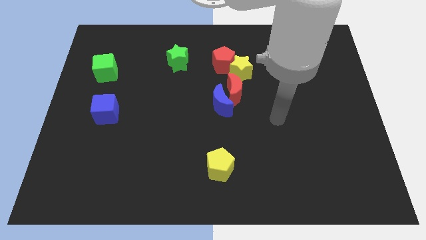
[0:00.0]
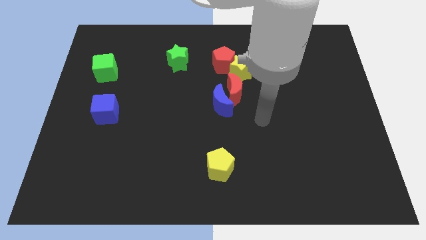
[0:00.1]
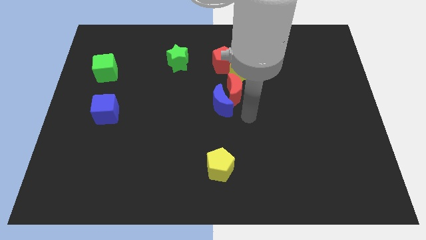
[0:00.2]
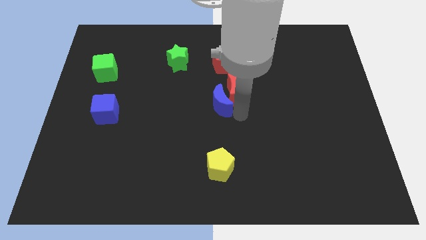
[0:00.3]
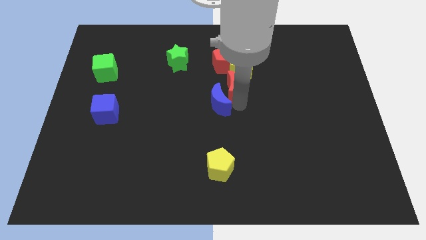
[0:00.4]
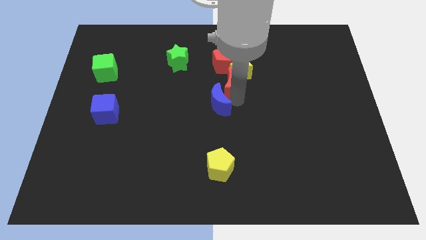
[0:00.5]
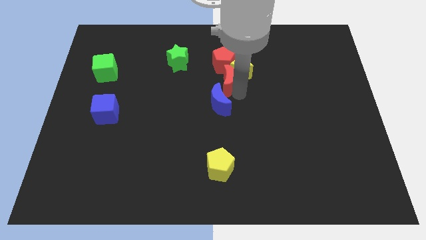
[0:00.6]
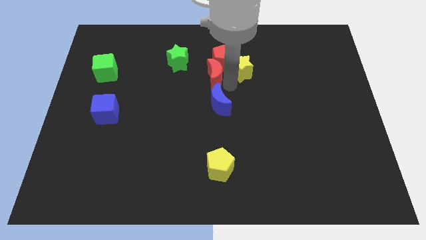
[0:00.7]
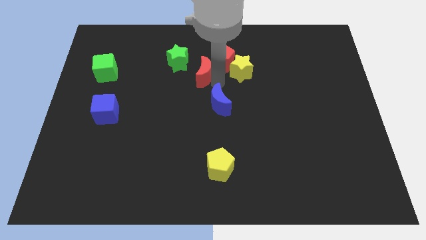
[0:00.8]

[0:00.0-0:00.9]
separate the blue moon from the red moon

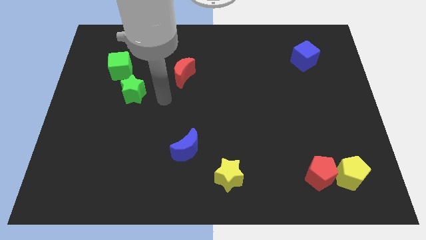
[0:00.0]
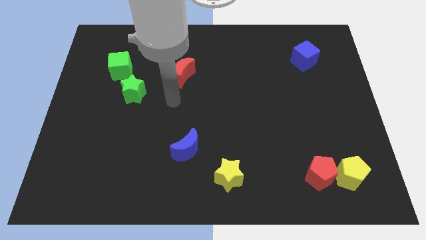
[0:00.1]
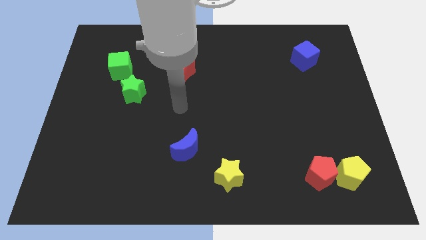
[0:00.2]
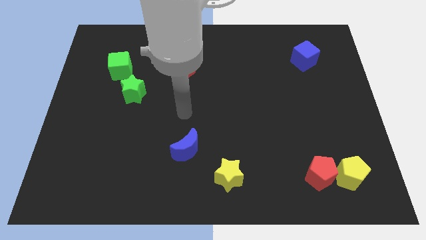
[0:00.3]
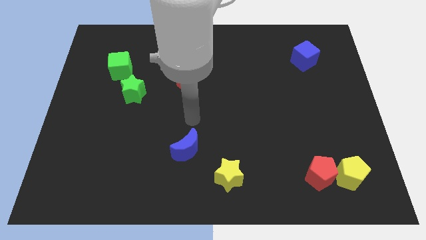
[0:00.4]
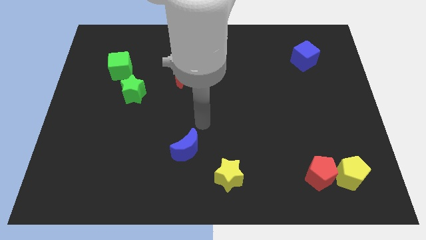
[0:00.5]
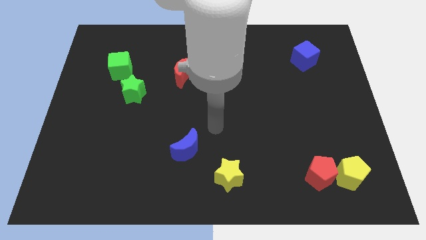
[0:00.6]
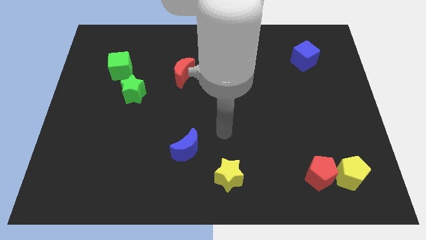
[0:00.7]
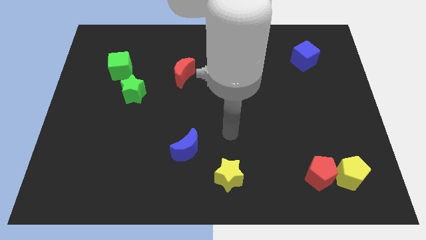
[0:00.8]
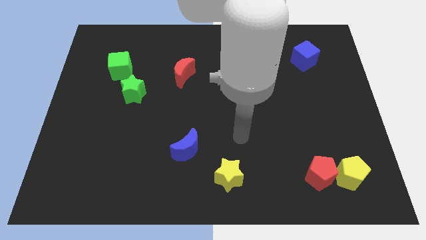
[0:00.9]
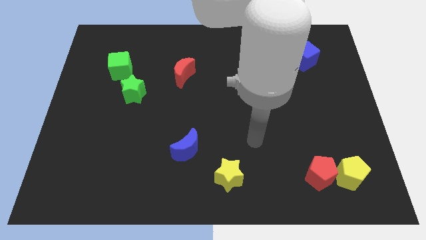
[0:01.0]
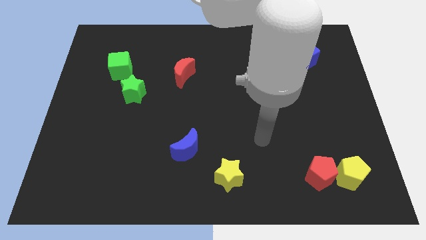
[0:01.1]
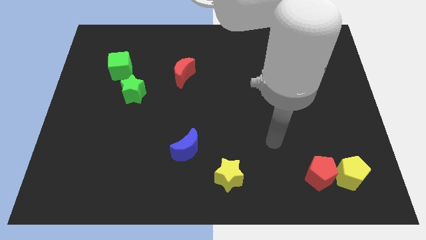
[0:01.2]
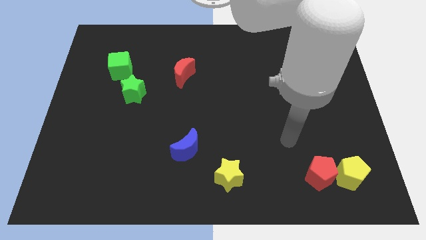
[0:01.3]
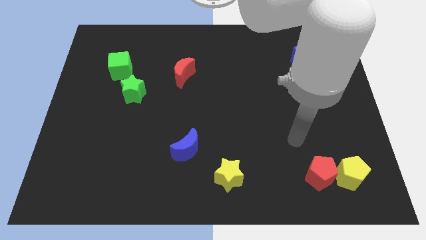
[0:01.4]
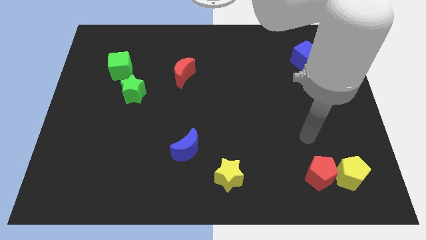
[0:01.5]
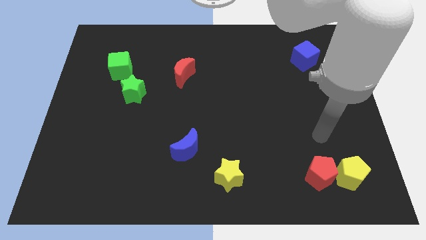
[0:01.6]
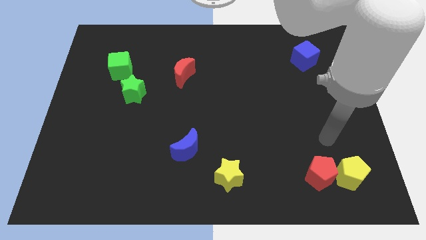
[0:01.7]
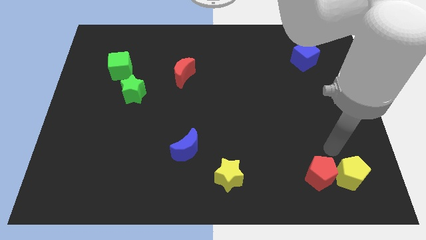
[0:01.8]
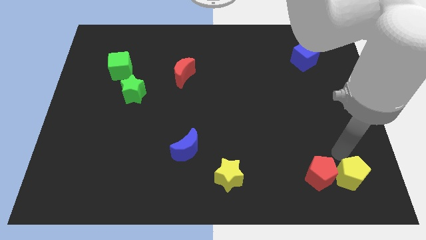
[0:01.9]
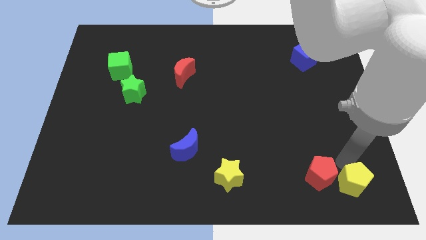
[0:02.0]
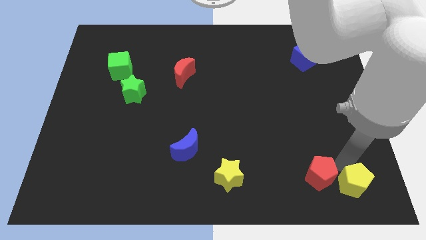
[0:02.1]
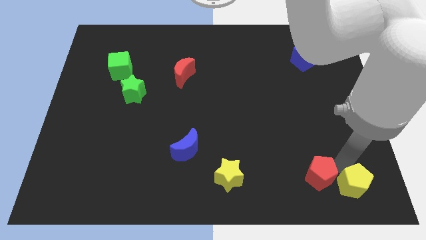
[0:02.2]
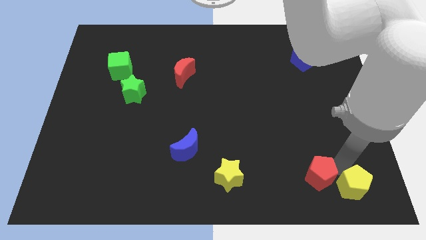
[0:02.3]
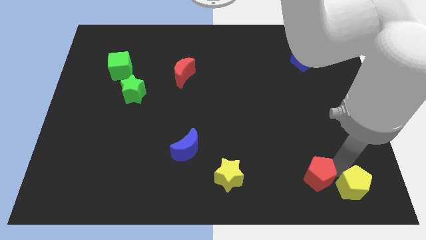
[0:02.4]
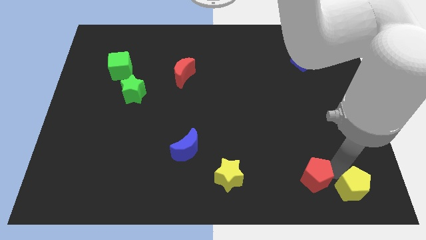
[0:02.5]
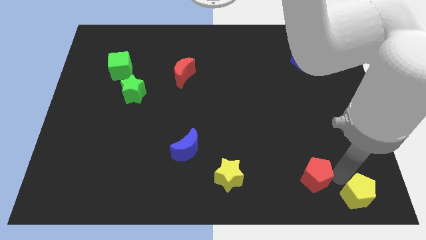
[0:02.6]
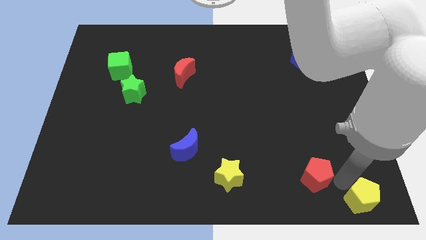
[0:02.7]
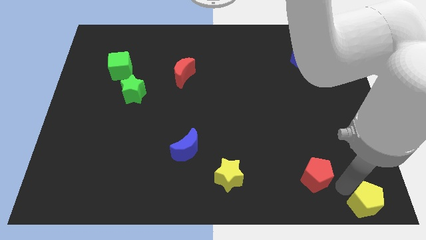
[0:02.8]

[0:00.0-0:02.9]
pull the red pentagon apart from the yellow pentagon

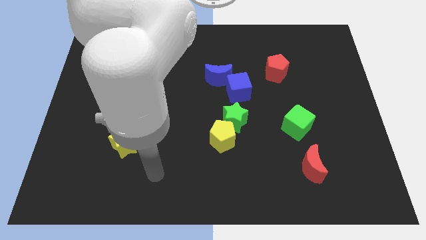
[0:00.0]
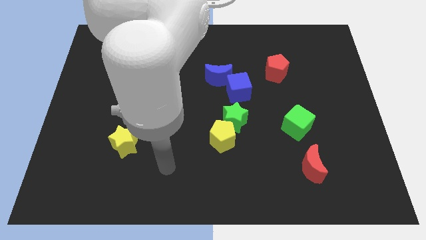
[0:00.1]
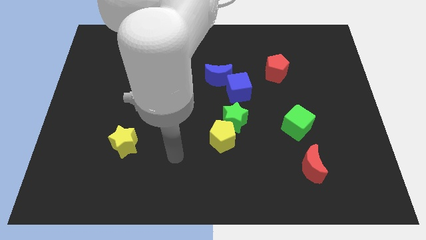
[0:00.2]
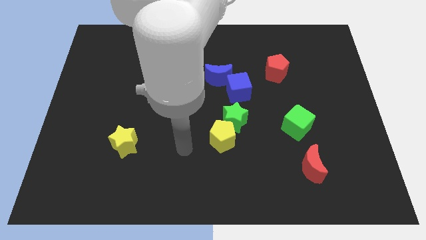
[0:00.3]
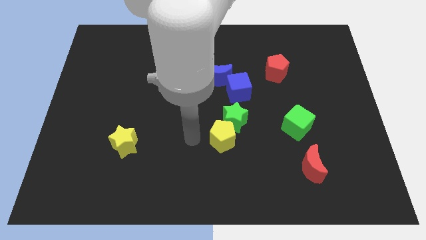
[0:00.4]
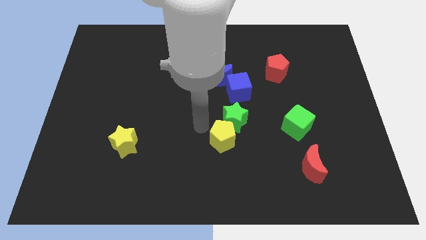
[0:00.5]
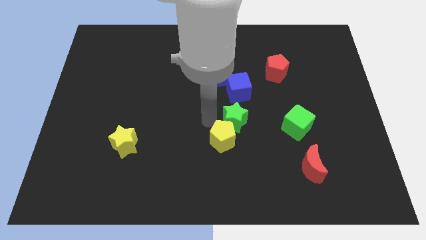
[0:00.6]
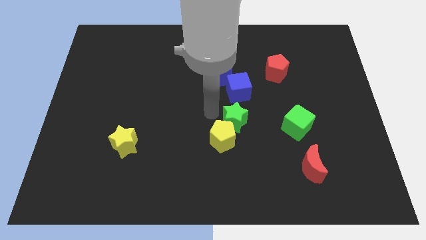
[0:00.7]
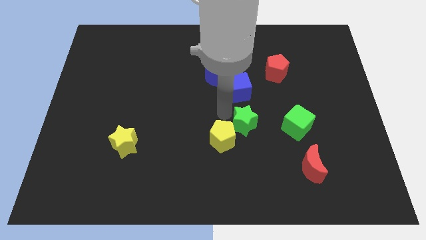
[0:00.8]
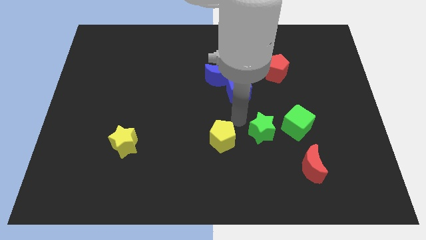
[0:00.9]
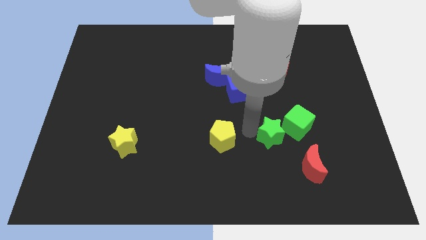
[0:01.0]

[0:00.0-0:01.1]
move the yellow pentagon away from the green star

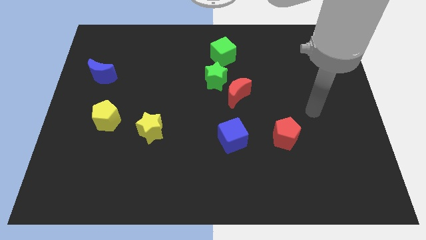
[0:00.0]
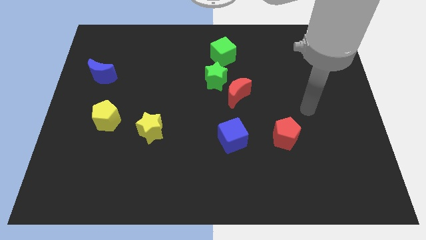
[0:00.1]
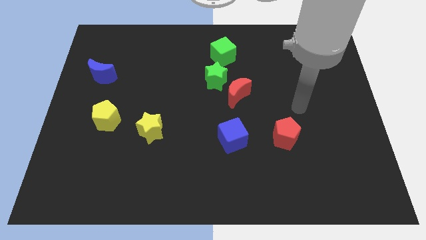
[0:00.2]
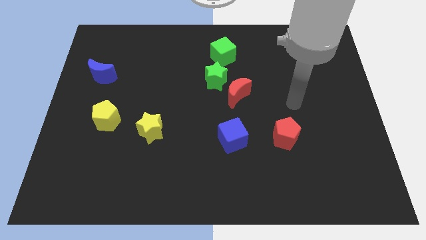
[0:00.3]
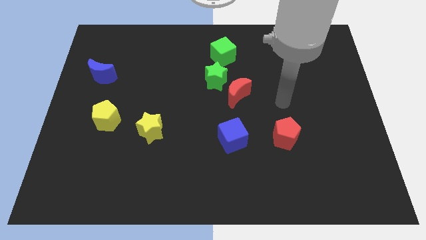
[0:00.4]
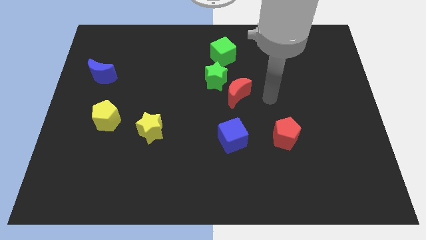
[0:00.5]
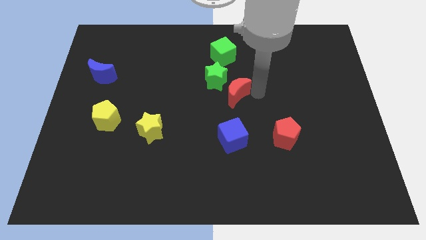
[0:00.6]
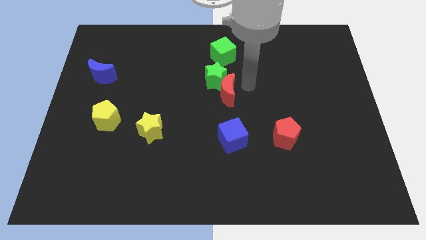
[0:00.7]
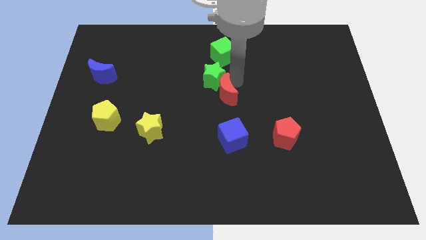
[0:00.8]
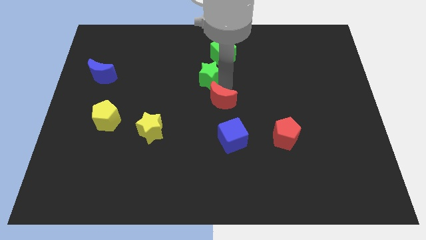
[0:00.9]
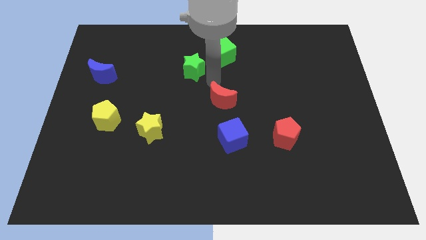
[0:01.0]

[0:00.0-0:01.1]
separate the red moon from the green star

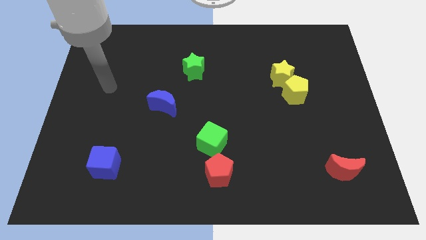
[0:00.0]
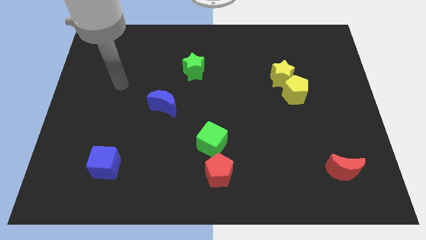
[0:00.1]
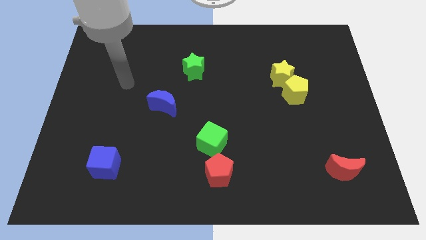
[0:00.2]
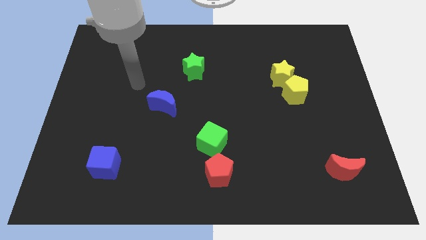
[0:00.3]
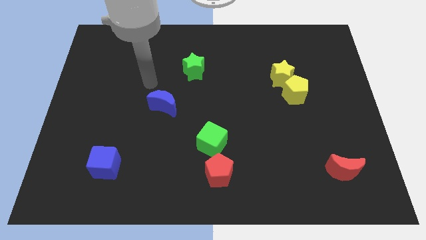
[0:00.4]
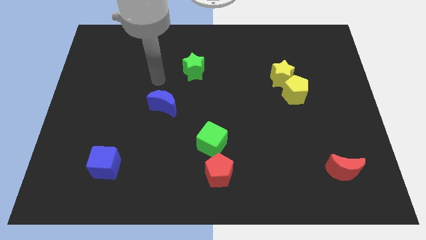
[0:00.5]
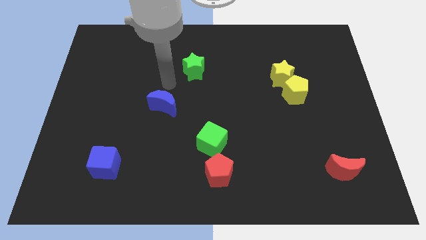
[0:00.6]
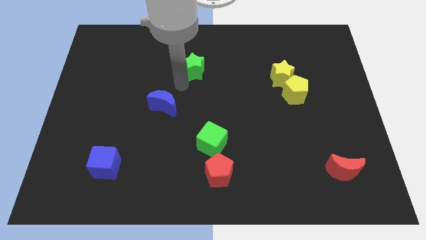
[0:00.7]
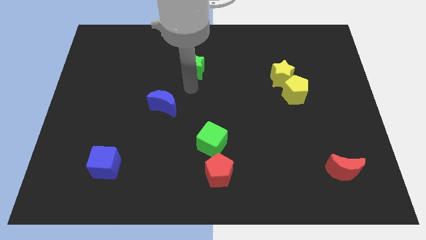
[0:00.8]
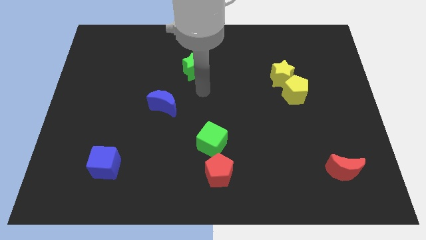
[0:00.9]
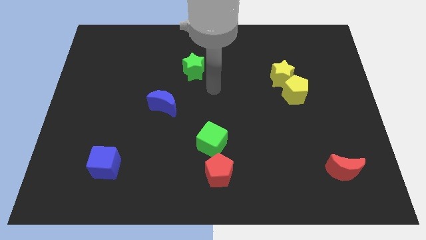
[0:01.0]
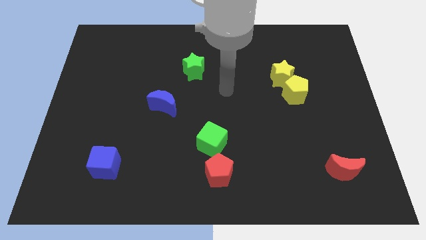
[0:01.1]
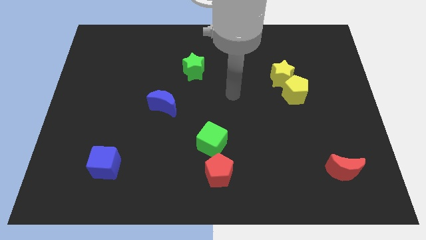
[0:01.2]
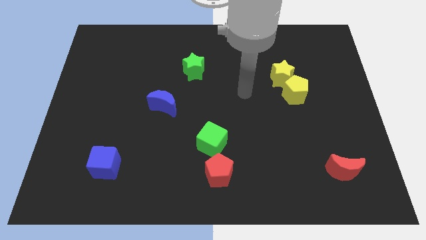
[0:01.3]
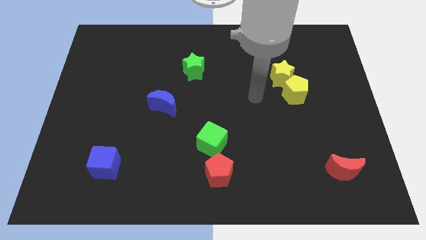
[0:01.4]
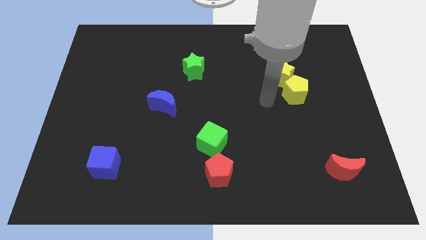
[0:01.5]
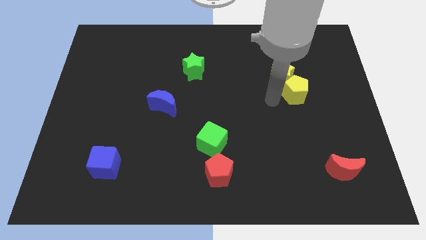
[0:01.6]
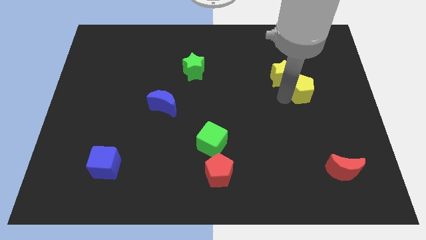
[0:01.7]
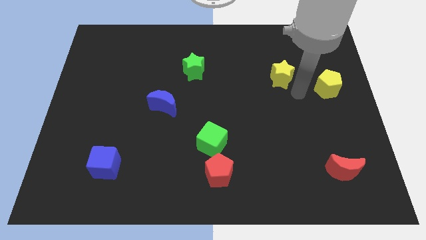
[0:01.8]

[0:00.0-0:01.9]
pull the yellow star apart from the yellow pentagon

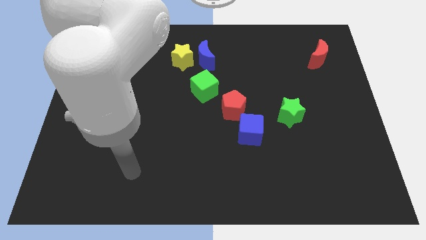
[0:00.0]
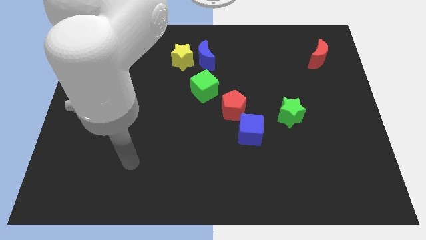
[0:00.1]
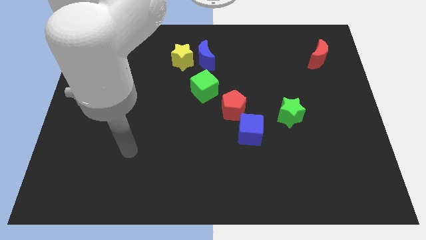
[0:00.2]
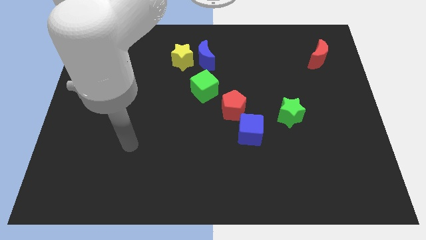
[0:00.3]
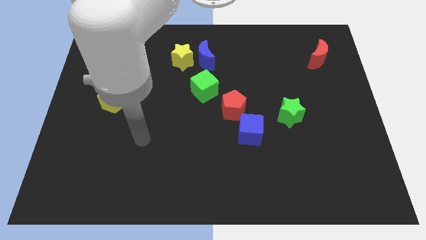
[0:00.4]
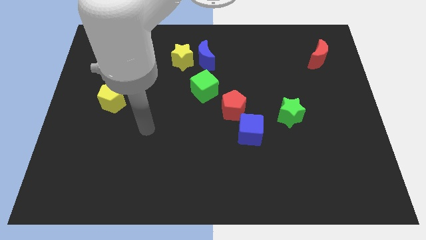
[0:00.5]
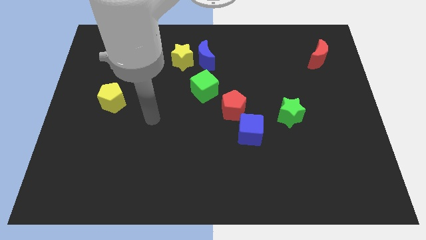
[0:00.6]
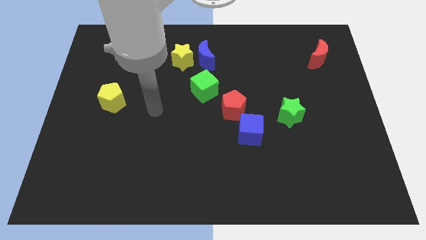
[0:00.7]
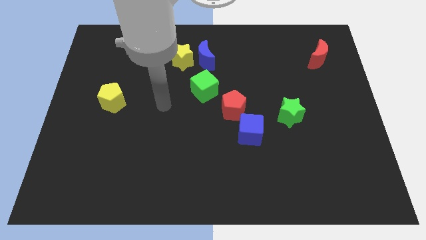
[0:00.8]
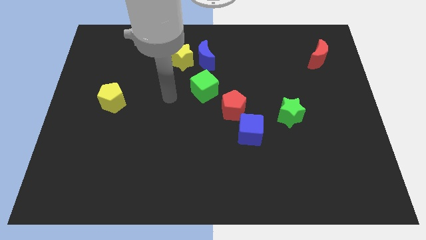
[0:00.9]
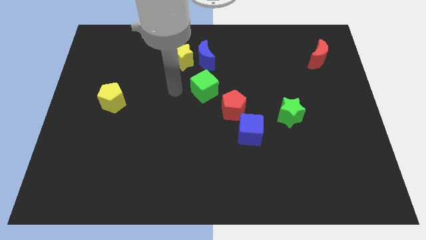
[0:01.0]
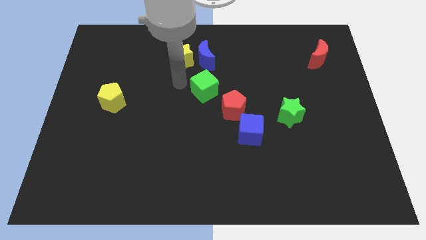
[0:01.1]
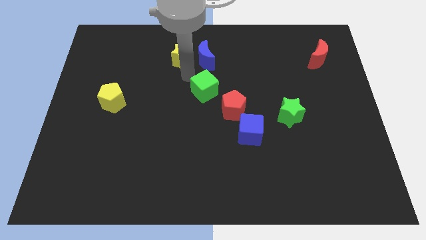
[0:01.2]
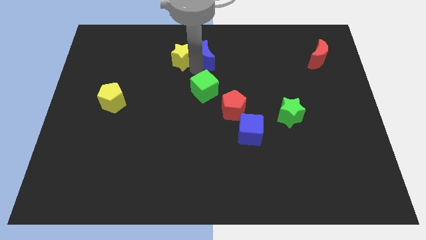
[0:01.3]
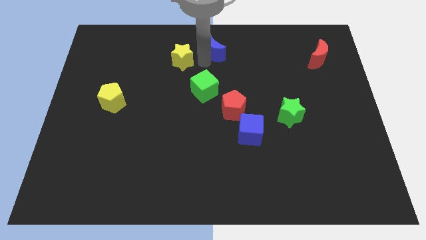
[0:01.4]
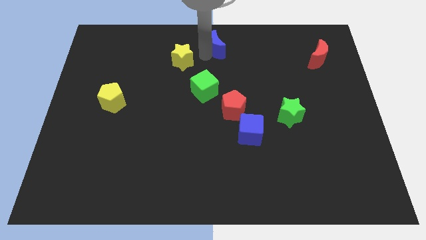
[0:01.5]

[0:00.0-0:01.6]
pull the yellow star apart from the blue moon
